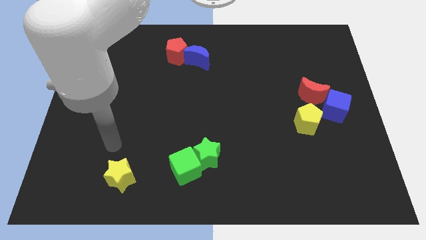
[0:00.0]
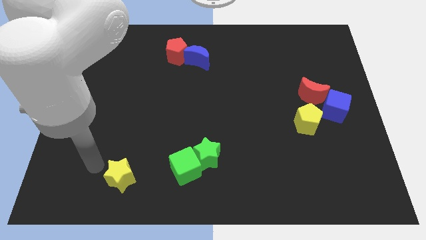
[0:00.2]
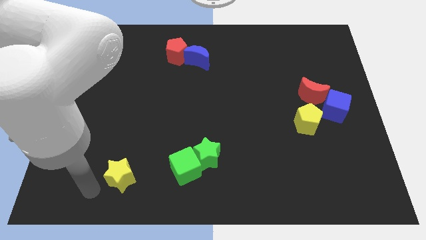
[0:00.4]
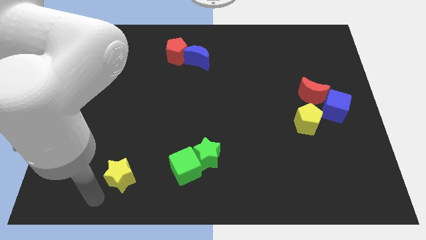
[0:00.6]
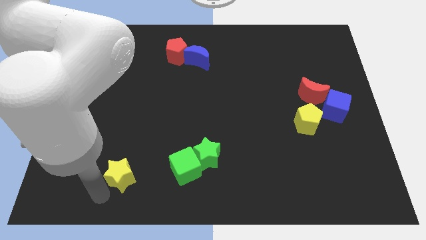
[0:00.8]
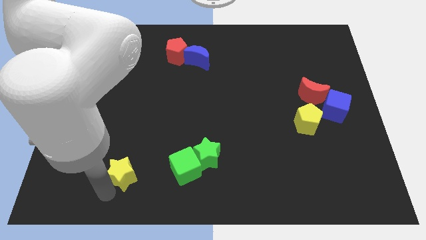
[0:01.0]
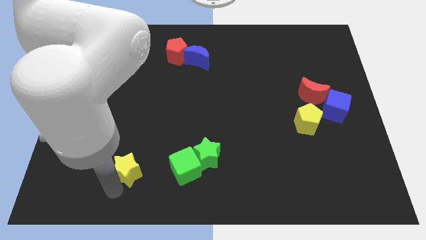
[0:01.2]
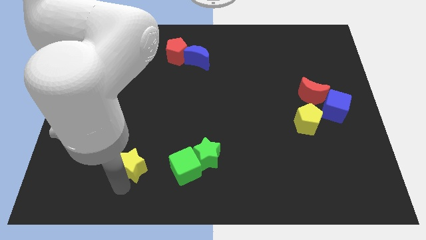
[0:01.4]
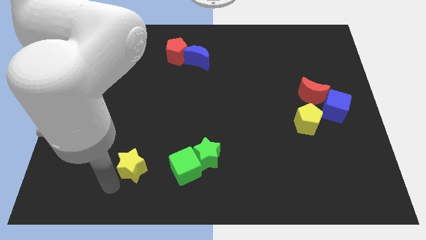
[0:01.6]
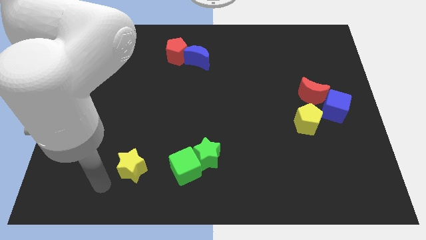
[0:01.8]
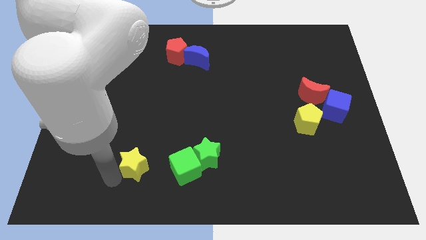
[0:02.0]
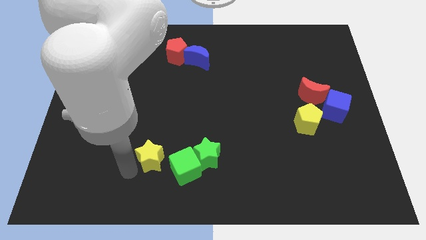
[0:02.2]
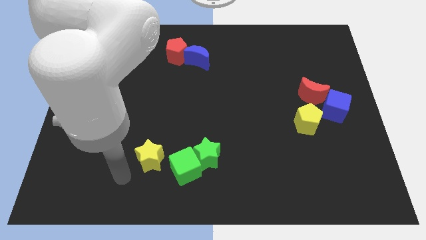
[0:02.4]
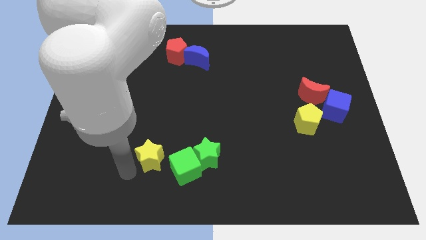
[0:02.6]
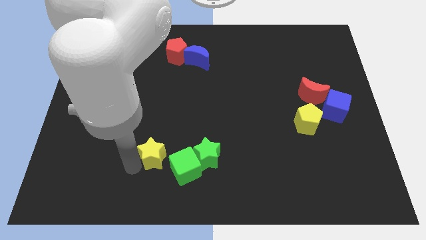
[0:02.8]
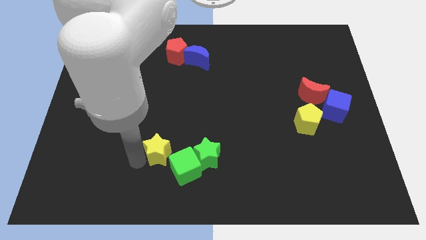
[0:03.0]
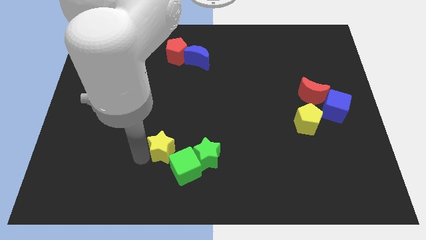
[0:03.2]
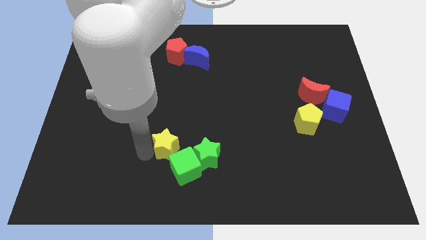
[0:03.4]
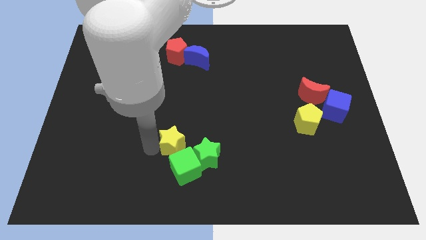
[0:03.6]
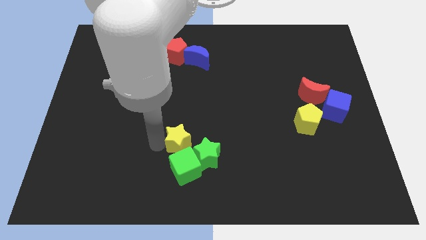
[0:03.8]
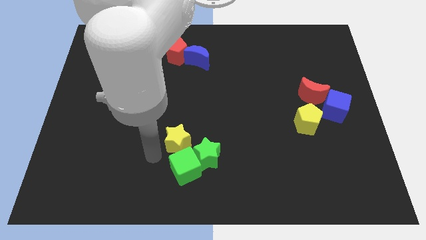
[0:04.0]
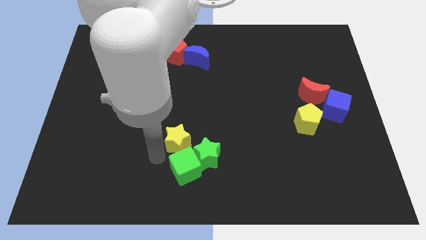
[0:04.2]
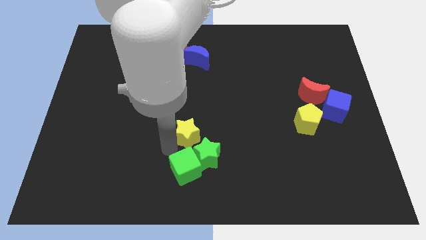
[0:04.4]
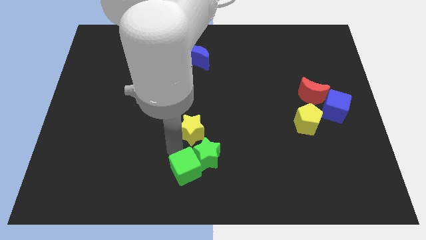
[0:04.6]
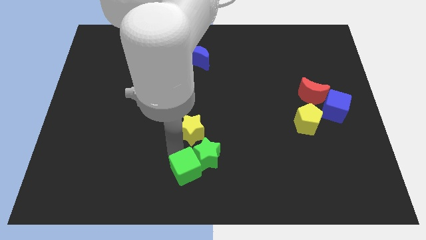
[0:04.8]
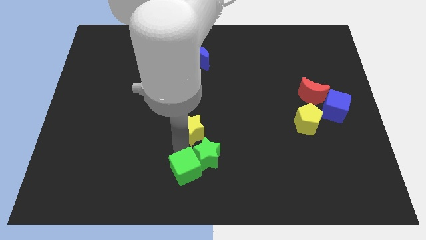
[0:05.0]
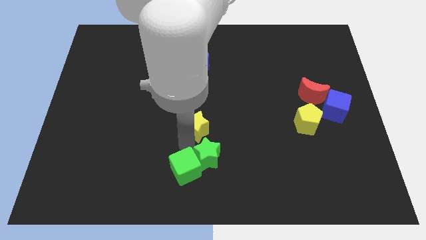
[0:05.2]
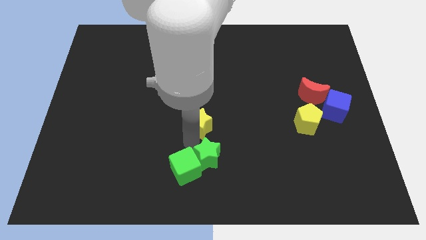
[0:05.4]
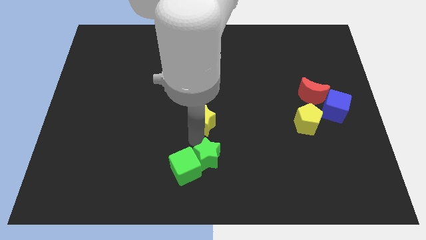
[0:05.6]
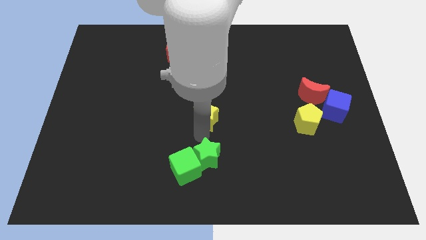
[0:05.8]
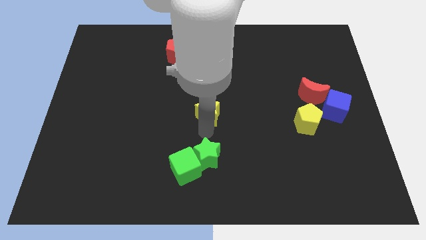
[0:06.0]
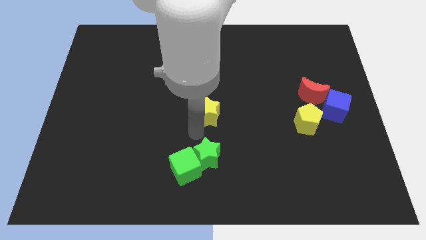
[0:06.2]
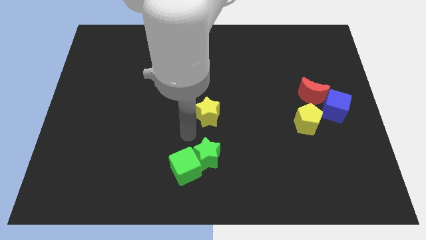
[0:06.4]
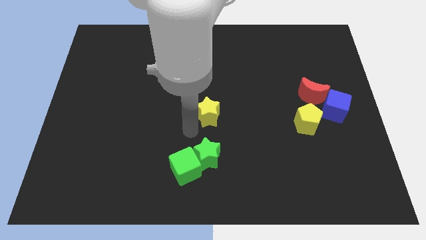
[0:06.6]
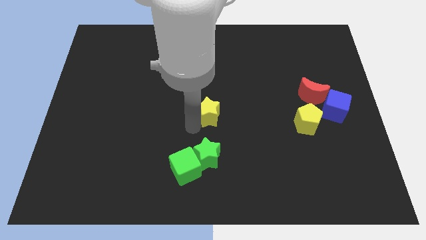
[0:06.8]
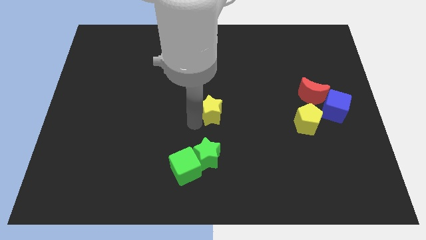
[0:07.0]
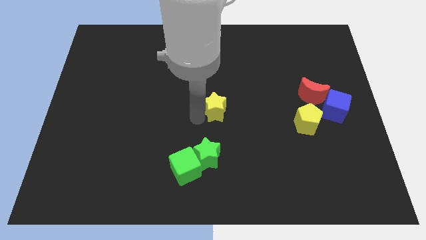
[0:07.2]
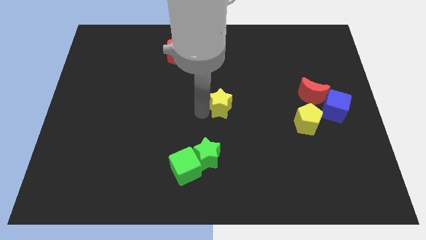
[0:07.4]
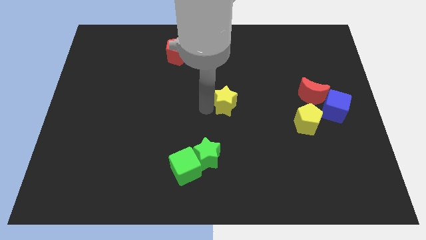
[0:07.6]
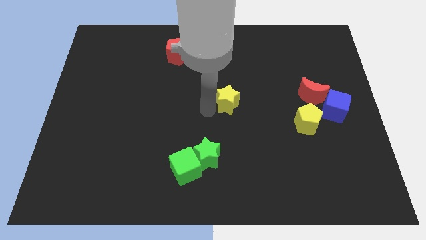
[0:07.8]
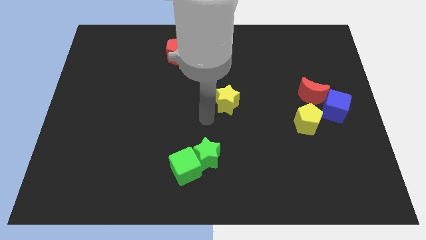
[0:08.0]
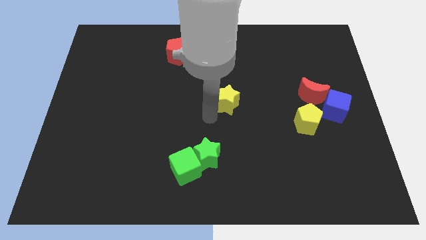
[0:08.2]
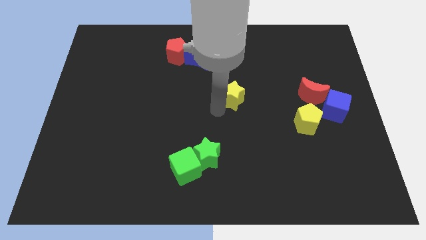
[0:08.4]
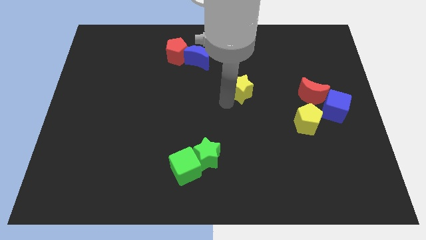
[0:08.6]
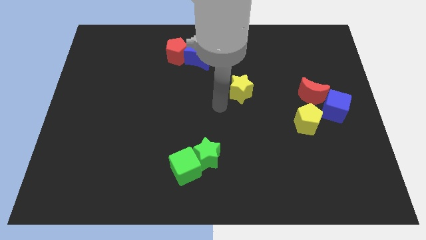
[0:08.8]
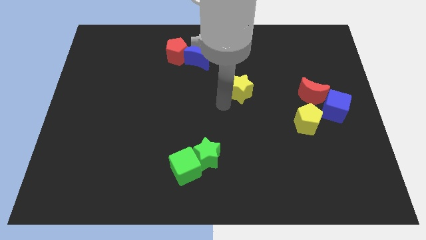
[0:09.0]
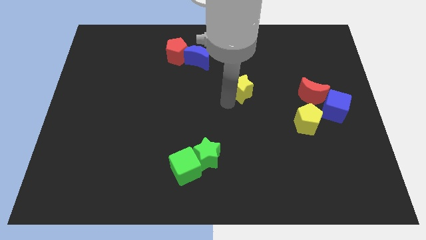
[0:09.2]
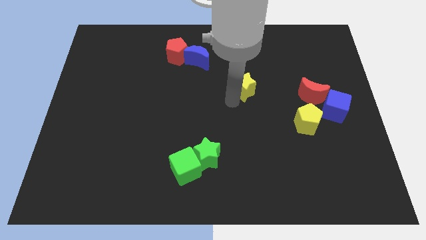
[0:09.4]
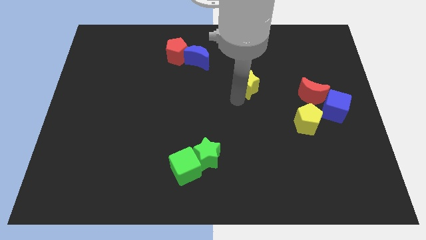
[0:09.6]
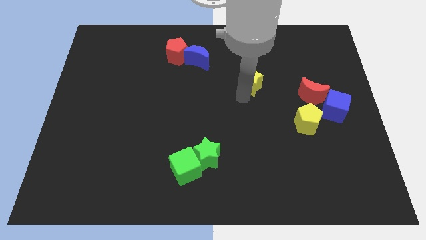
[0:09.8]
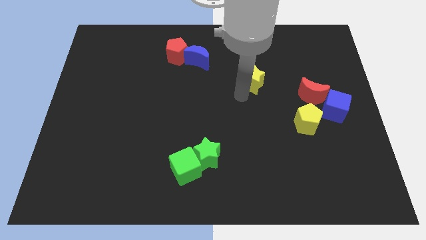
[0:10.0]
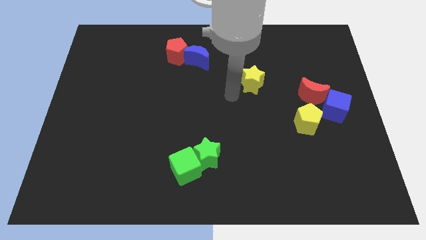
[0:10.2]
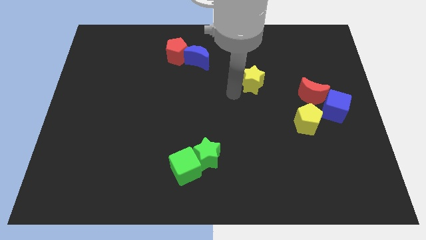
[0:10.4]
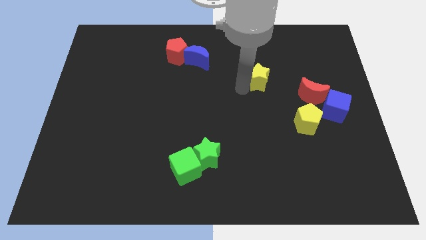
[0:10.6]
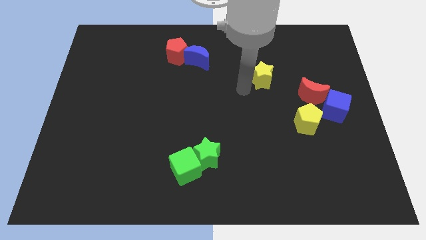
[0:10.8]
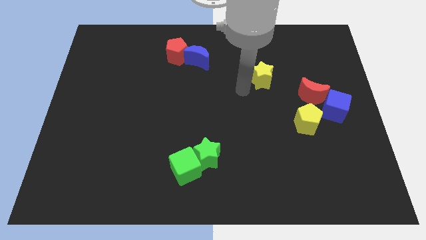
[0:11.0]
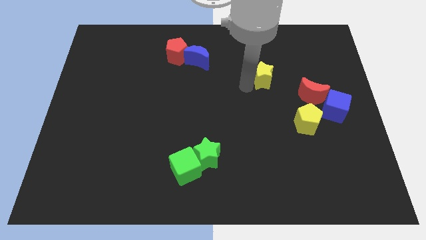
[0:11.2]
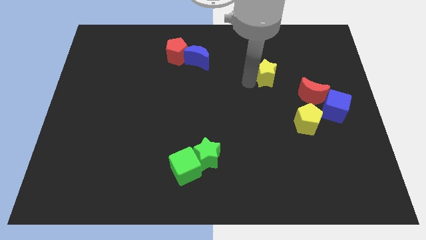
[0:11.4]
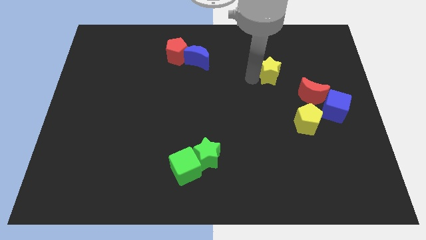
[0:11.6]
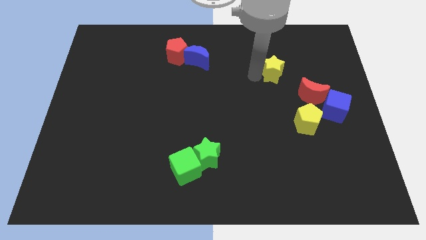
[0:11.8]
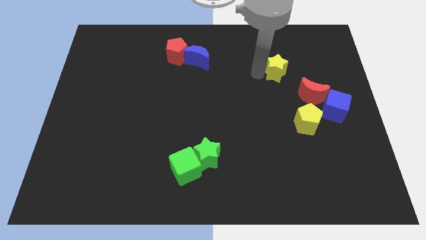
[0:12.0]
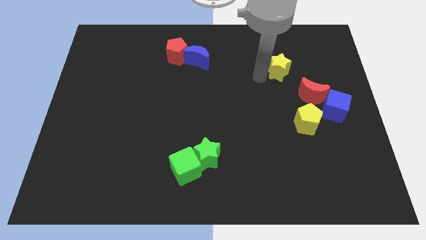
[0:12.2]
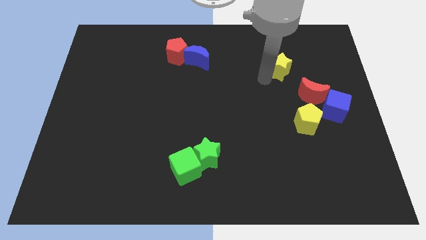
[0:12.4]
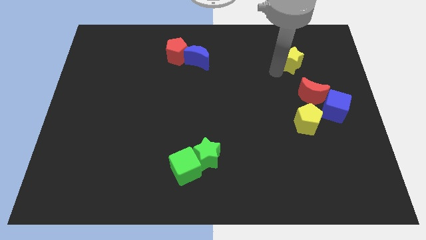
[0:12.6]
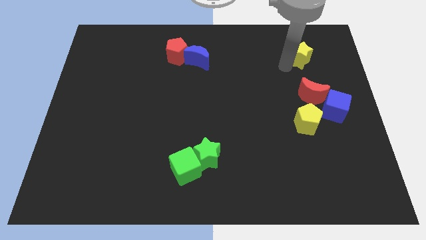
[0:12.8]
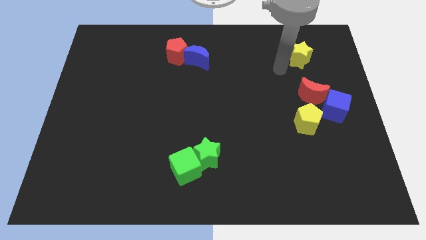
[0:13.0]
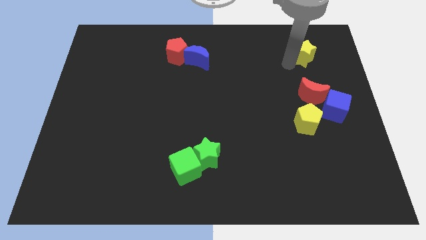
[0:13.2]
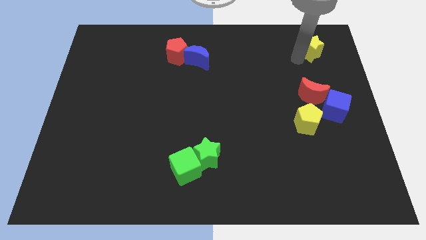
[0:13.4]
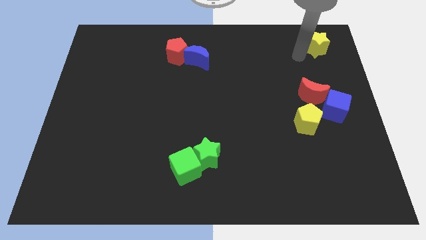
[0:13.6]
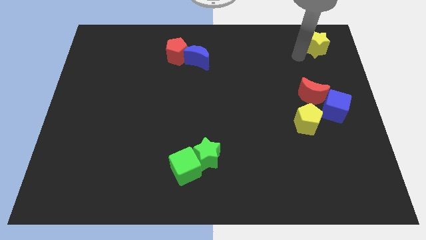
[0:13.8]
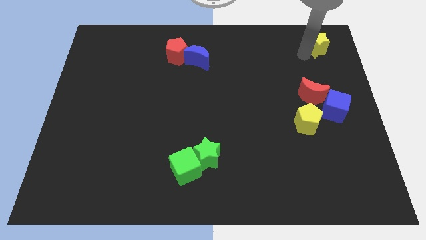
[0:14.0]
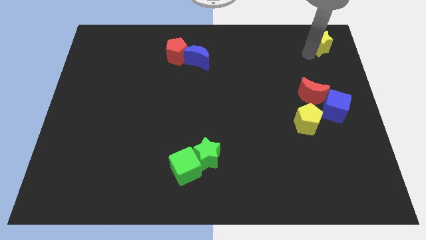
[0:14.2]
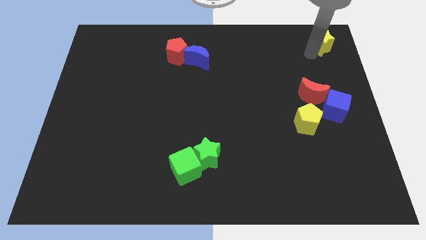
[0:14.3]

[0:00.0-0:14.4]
move the yellow star to the top right corner
